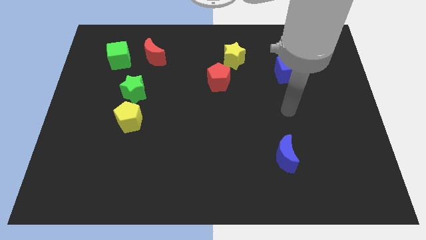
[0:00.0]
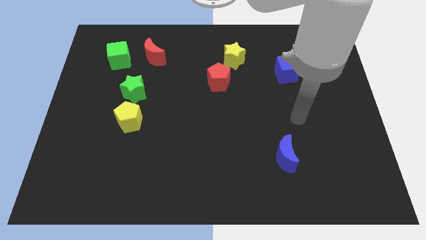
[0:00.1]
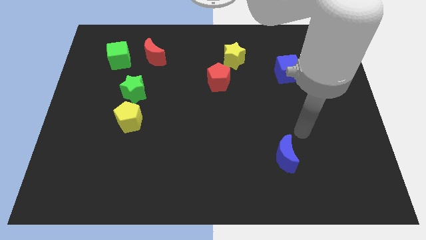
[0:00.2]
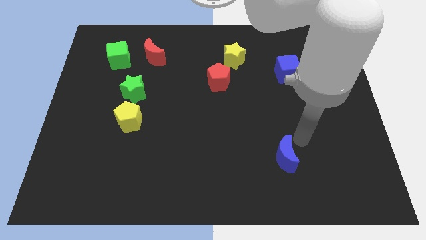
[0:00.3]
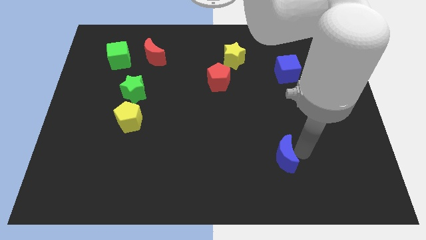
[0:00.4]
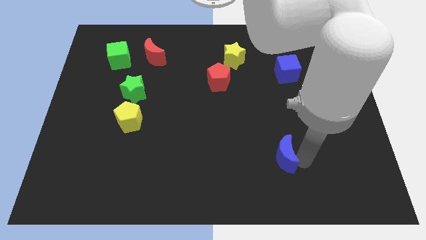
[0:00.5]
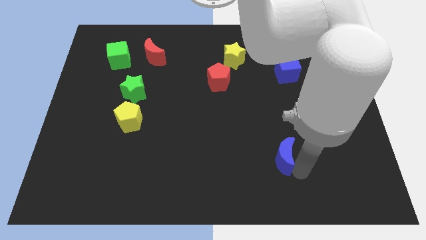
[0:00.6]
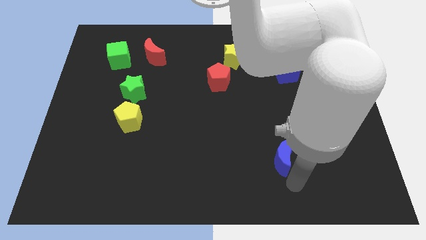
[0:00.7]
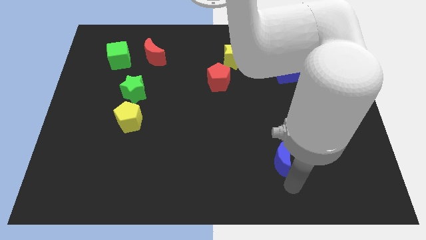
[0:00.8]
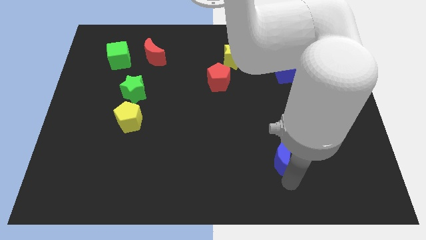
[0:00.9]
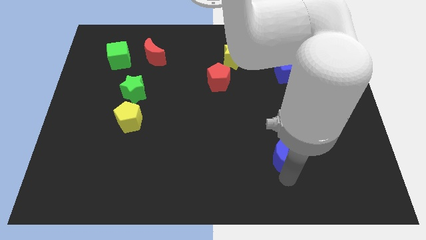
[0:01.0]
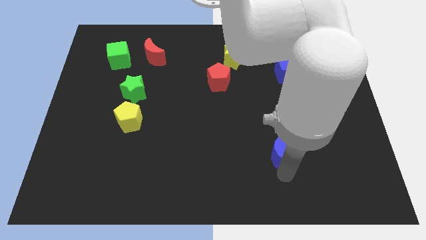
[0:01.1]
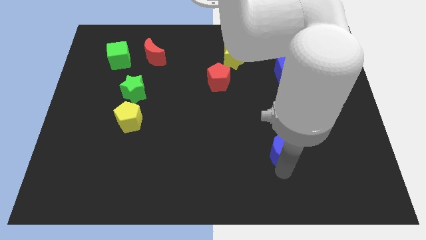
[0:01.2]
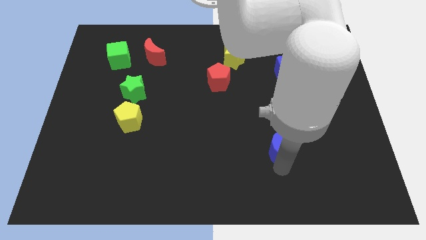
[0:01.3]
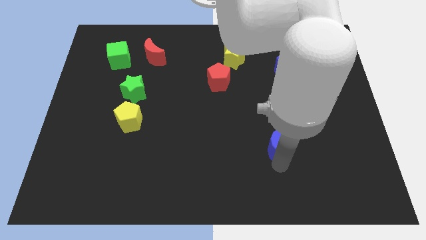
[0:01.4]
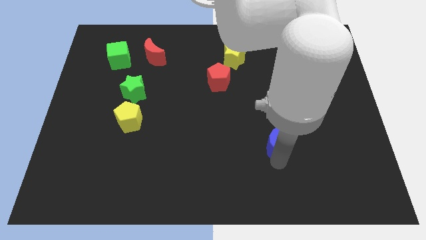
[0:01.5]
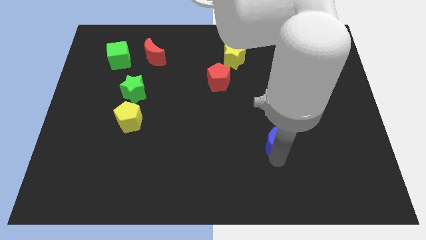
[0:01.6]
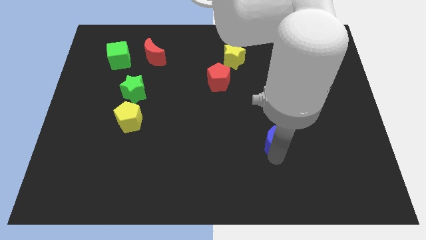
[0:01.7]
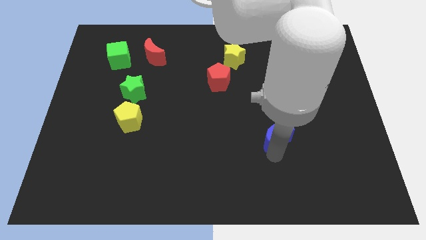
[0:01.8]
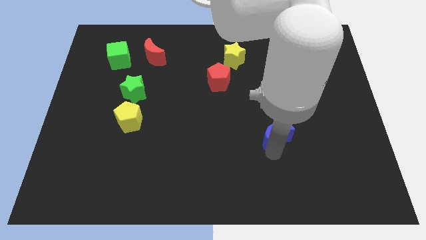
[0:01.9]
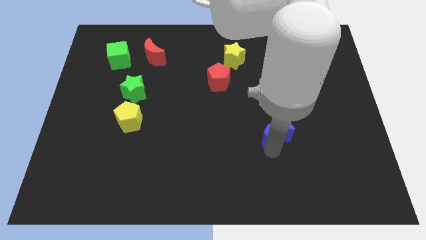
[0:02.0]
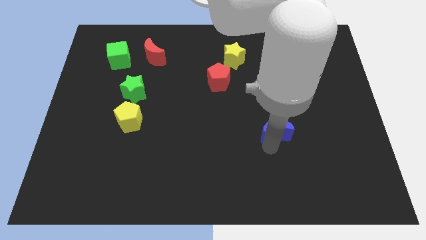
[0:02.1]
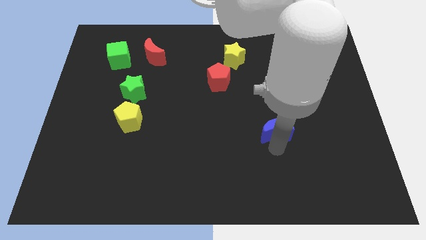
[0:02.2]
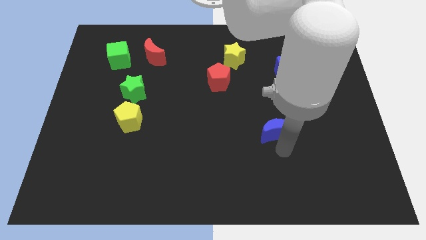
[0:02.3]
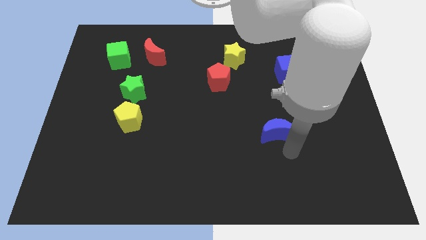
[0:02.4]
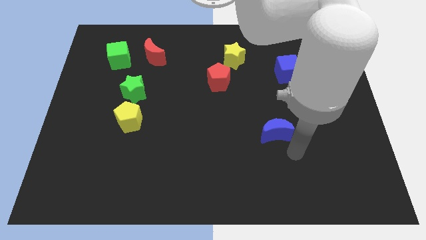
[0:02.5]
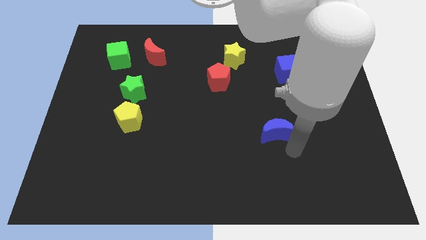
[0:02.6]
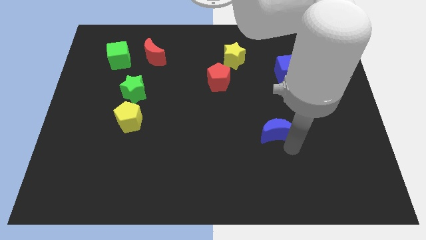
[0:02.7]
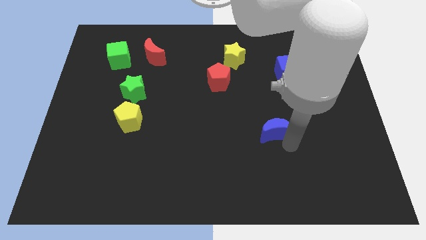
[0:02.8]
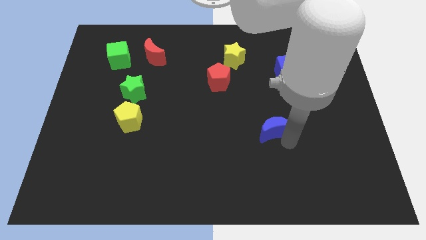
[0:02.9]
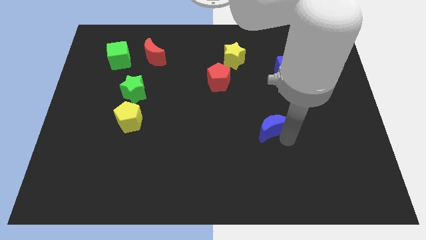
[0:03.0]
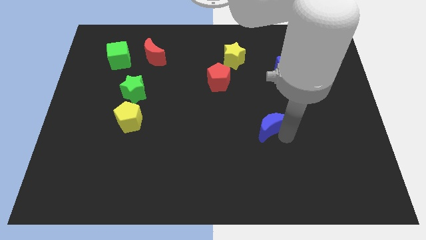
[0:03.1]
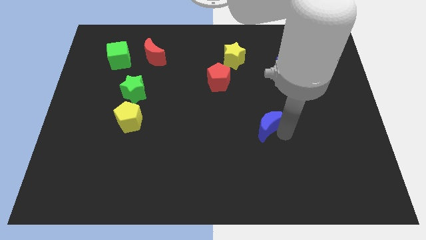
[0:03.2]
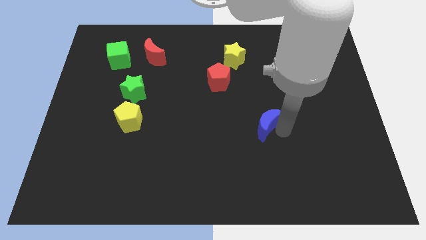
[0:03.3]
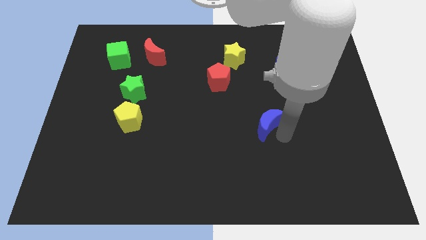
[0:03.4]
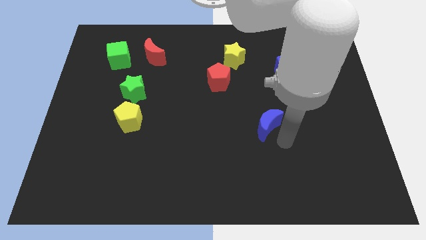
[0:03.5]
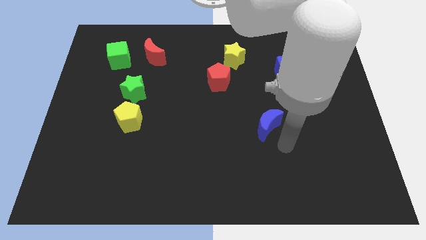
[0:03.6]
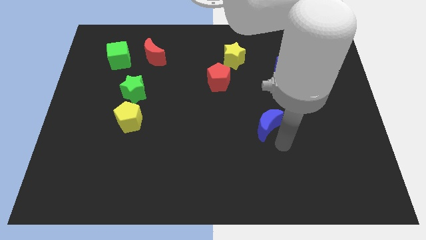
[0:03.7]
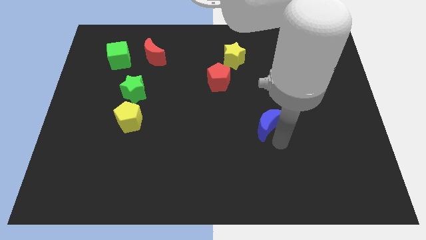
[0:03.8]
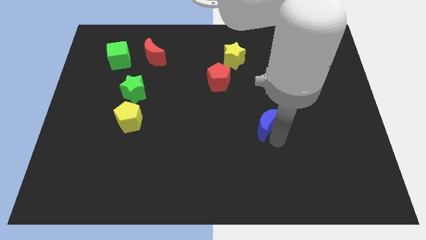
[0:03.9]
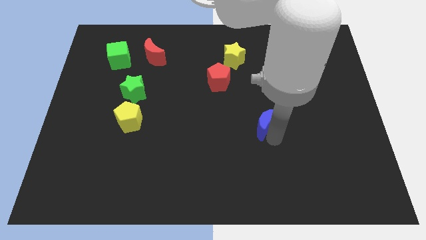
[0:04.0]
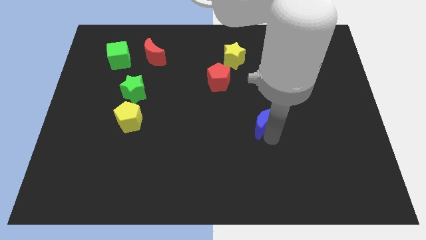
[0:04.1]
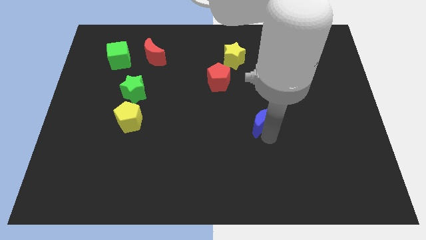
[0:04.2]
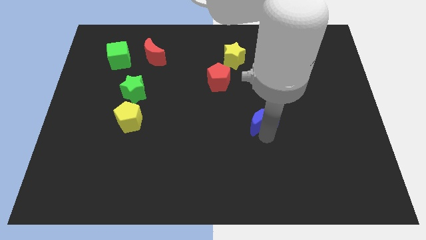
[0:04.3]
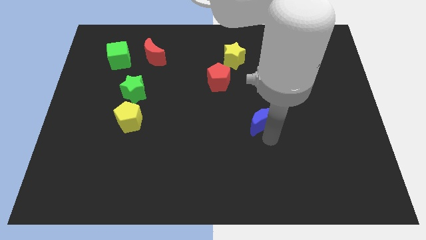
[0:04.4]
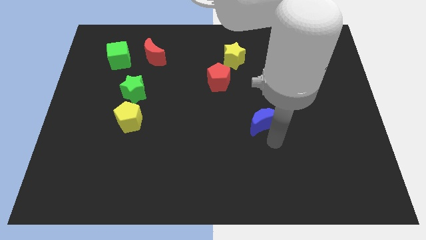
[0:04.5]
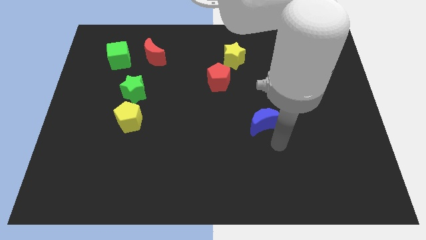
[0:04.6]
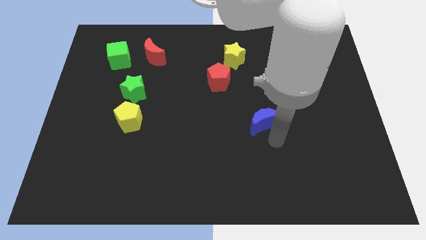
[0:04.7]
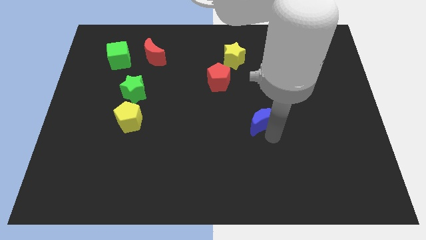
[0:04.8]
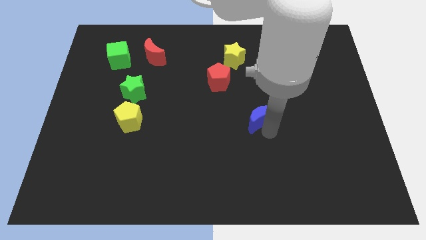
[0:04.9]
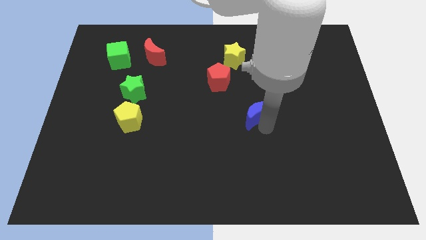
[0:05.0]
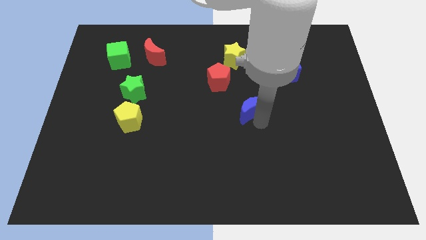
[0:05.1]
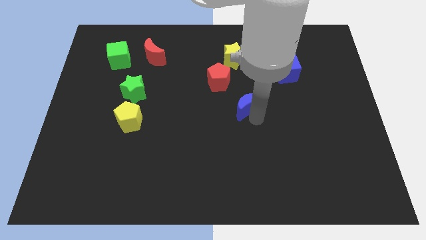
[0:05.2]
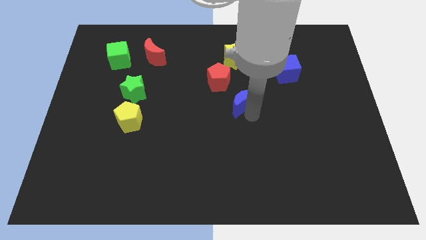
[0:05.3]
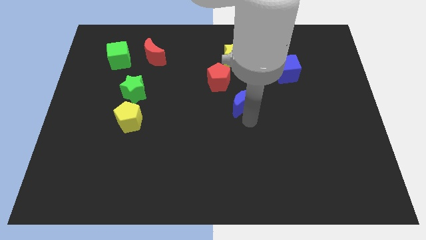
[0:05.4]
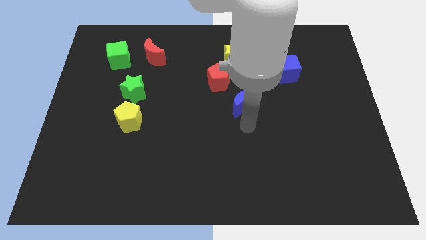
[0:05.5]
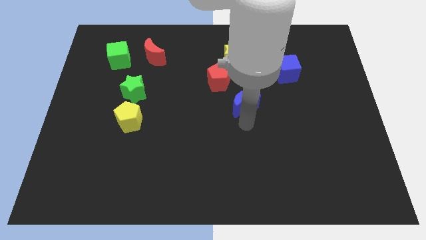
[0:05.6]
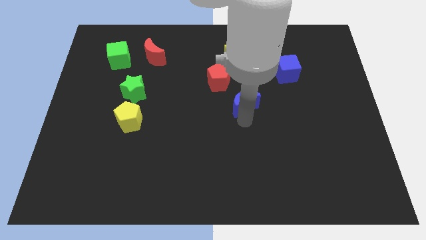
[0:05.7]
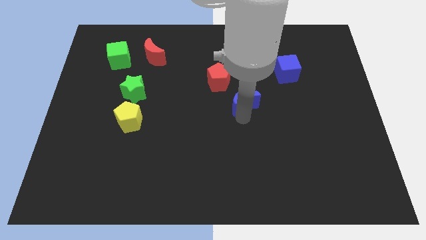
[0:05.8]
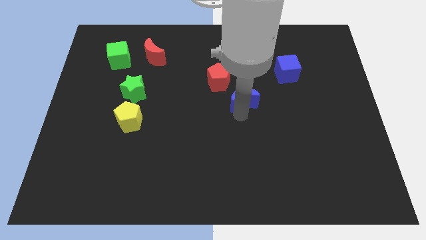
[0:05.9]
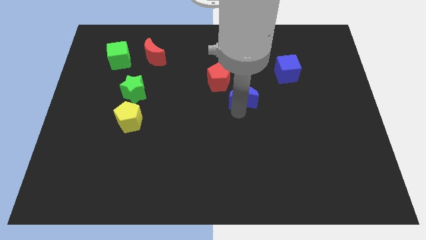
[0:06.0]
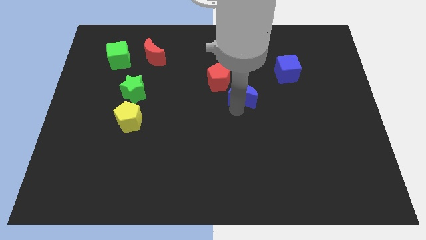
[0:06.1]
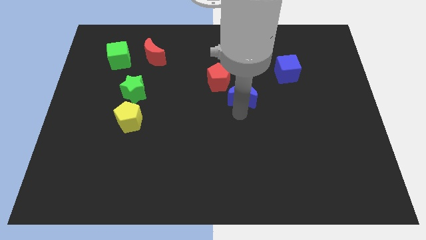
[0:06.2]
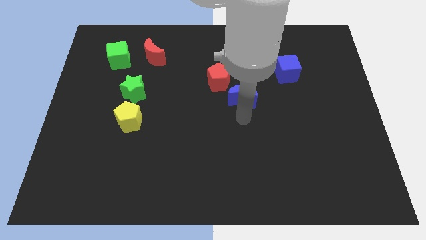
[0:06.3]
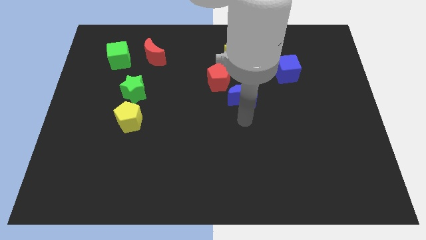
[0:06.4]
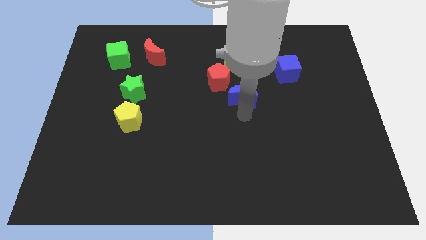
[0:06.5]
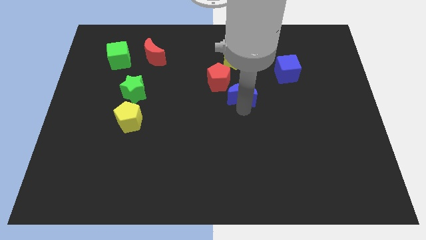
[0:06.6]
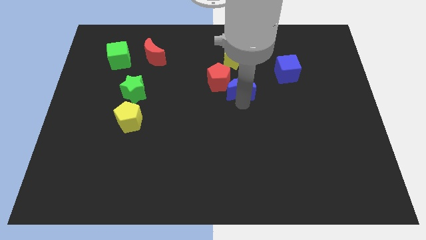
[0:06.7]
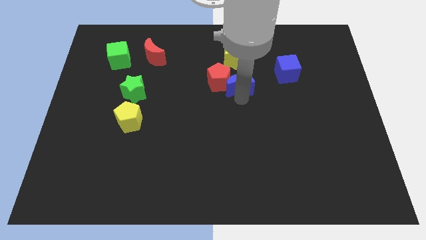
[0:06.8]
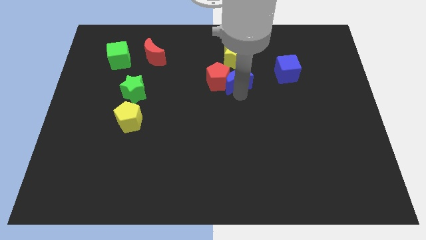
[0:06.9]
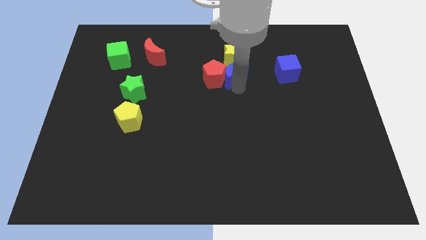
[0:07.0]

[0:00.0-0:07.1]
put the blue moon to the yellow star
